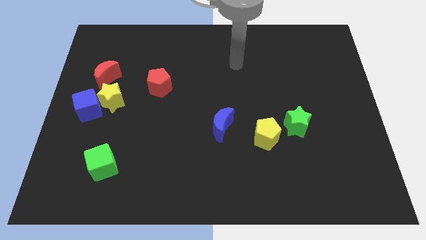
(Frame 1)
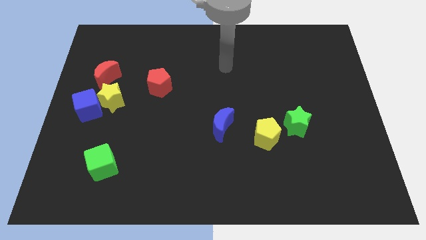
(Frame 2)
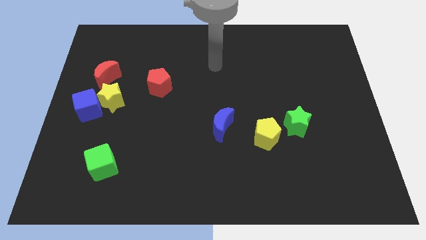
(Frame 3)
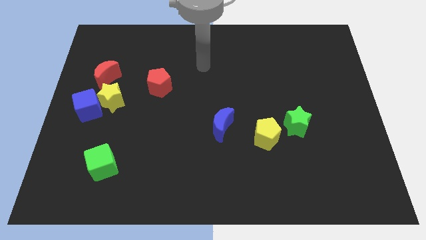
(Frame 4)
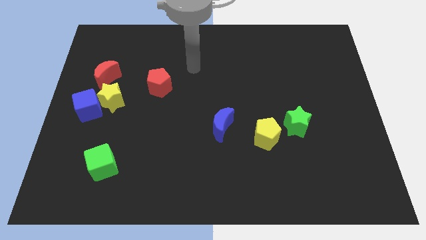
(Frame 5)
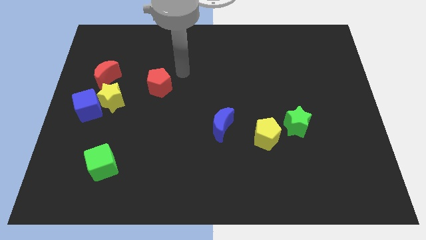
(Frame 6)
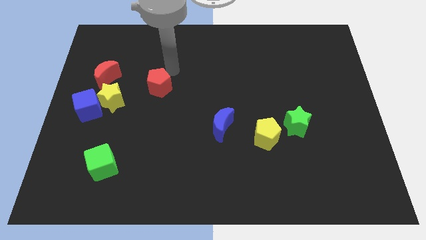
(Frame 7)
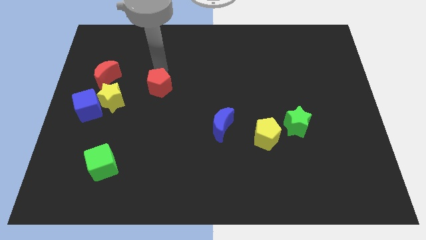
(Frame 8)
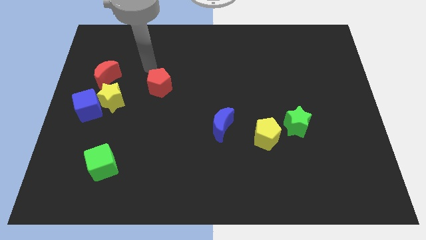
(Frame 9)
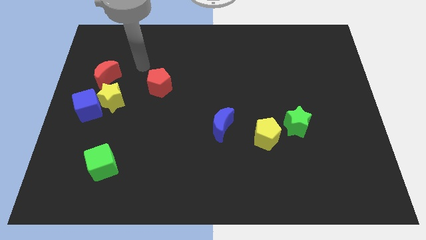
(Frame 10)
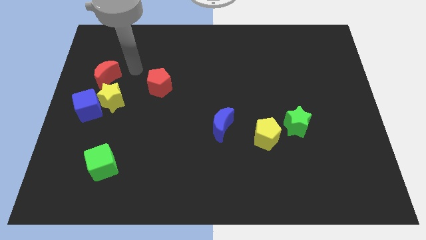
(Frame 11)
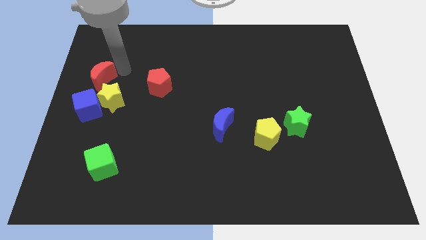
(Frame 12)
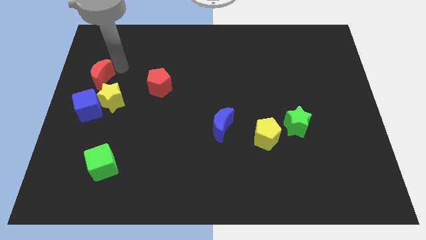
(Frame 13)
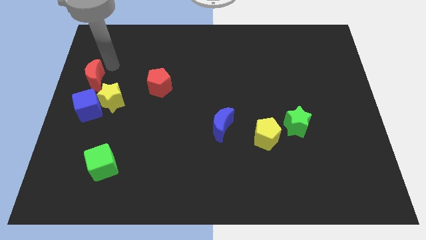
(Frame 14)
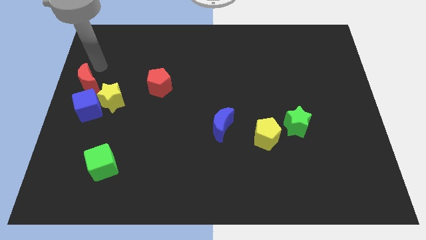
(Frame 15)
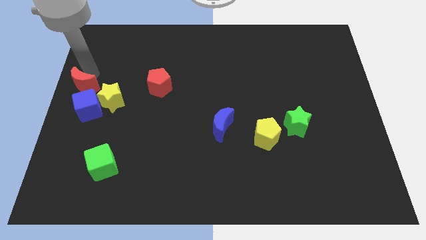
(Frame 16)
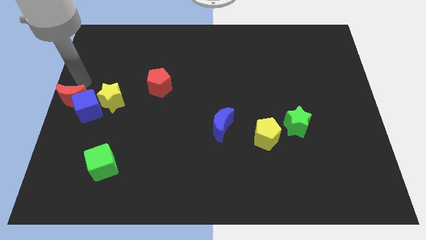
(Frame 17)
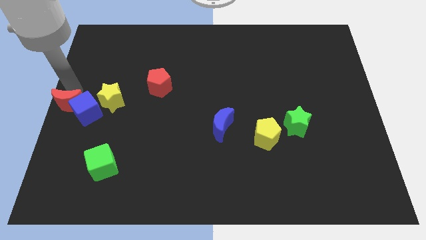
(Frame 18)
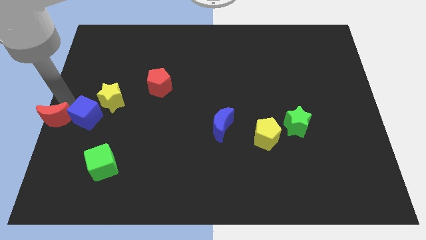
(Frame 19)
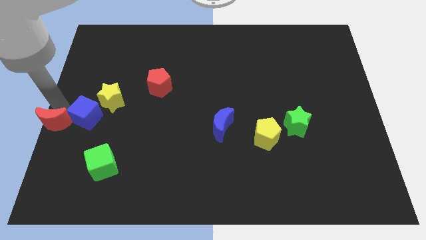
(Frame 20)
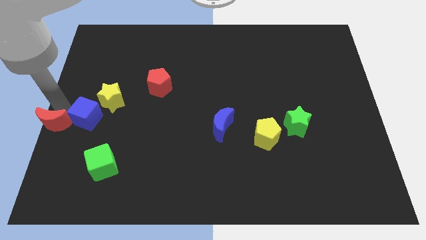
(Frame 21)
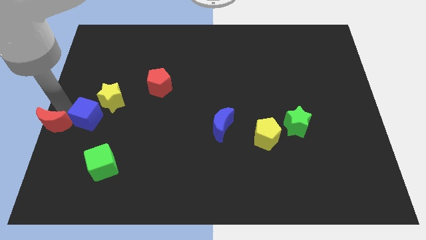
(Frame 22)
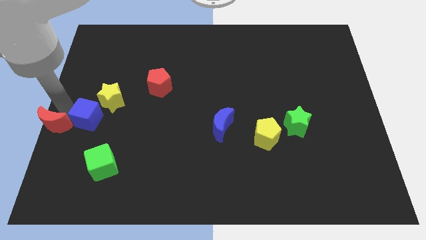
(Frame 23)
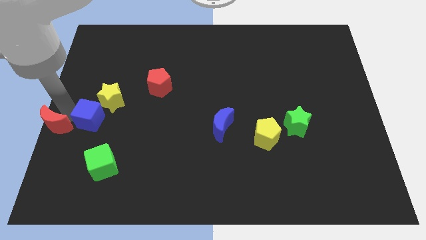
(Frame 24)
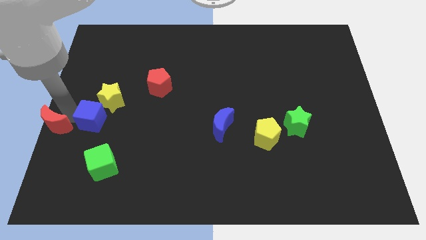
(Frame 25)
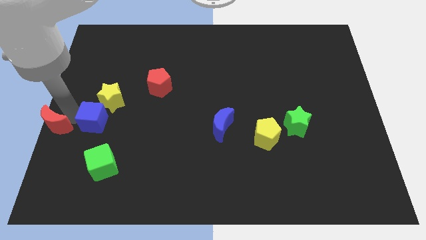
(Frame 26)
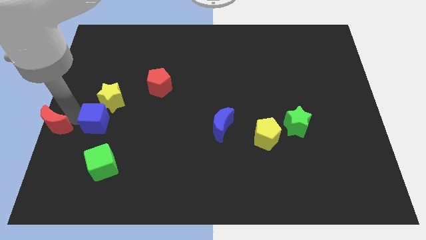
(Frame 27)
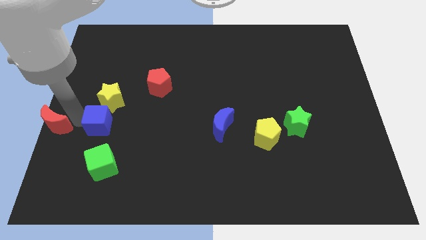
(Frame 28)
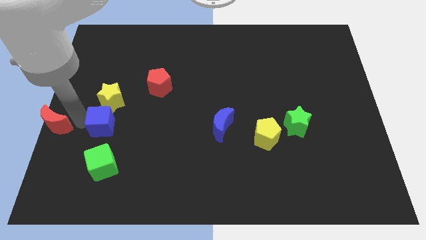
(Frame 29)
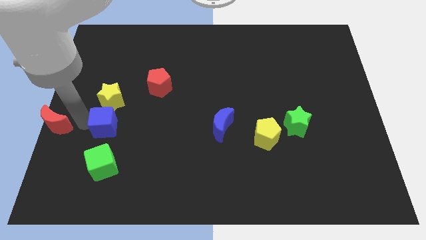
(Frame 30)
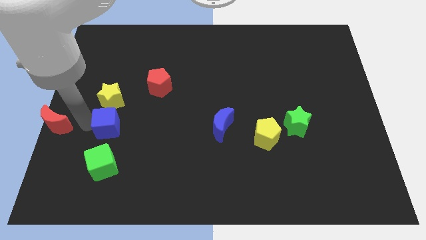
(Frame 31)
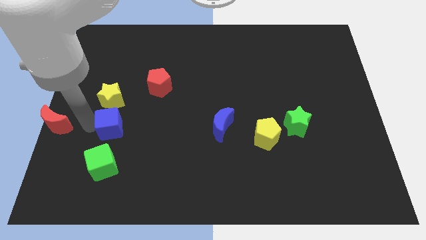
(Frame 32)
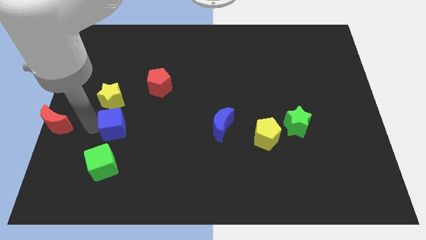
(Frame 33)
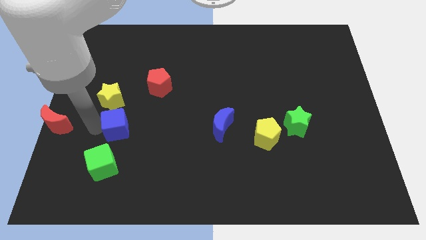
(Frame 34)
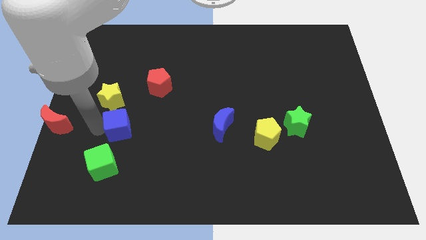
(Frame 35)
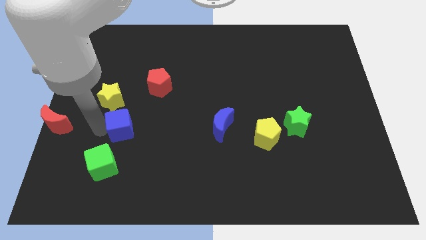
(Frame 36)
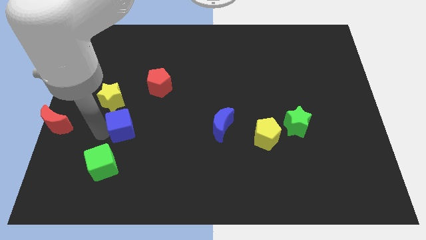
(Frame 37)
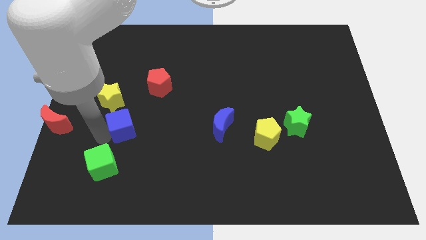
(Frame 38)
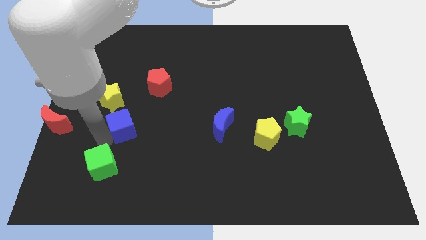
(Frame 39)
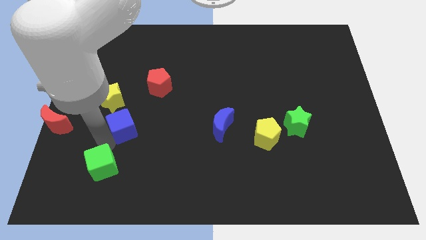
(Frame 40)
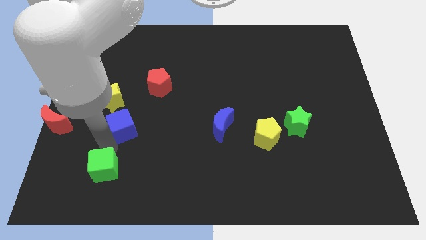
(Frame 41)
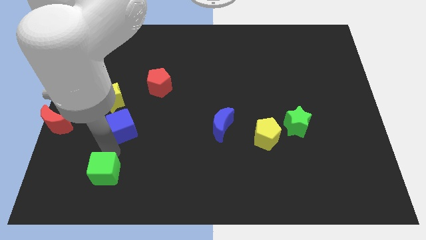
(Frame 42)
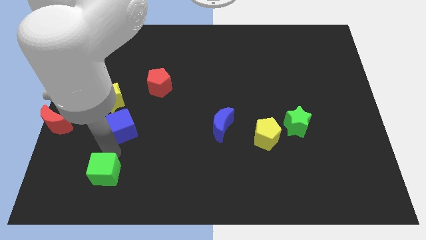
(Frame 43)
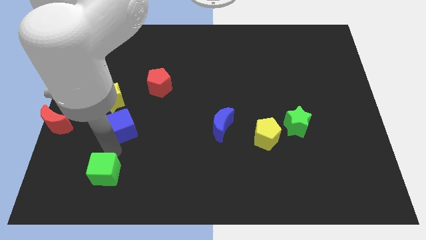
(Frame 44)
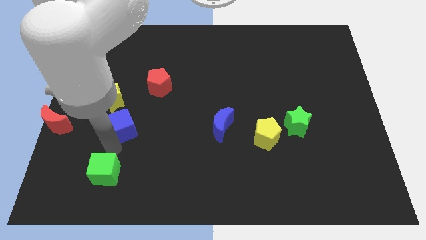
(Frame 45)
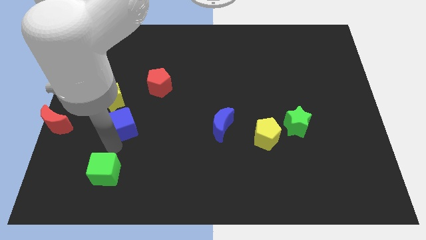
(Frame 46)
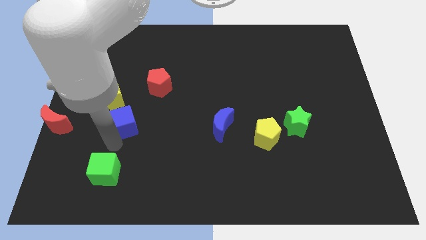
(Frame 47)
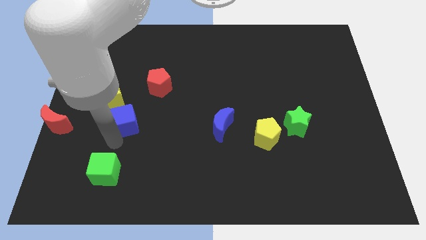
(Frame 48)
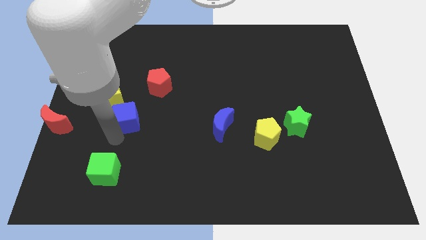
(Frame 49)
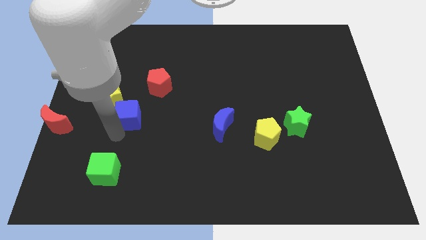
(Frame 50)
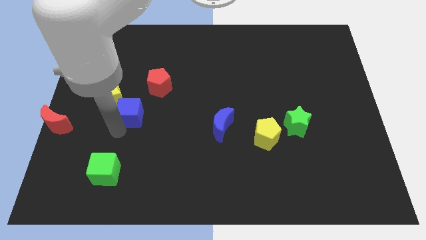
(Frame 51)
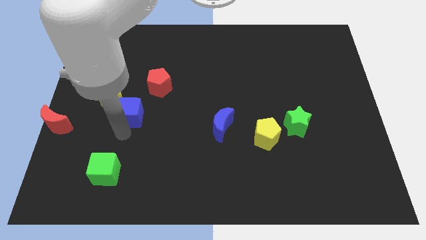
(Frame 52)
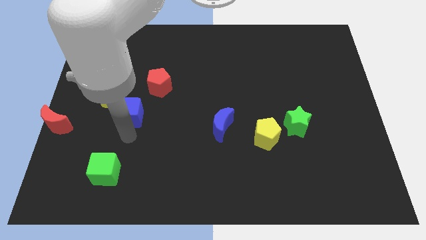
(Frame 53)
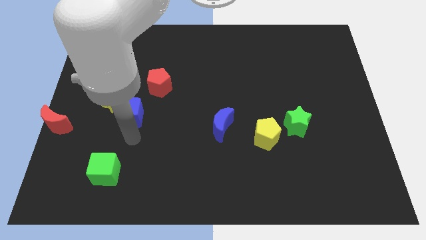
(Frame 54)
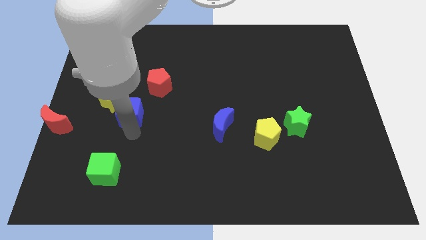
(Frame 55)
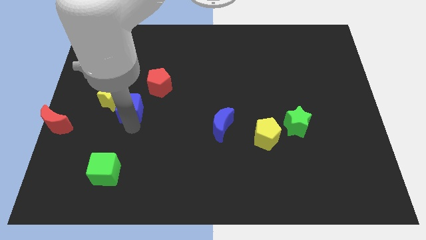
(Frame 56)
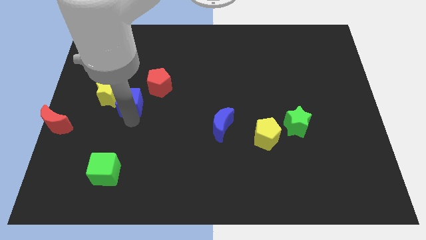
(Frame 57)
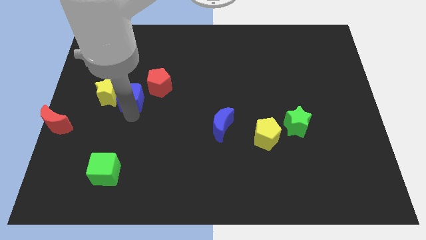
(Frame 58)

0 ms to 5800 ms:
slightly push the blue cube up and right

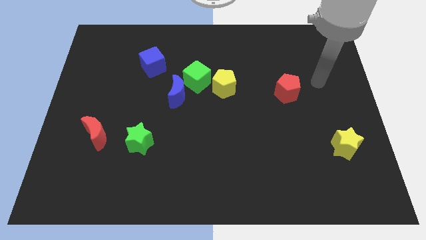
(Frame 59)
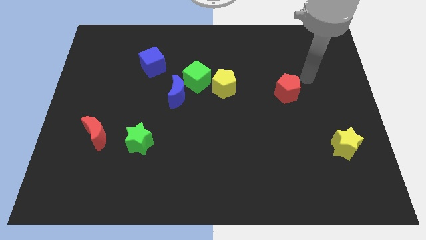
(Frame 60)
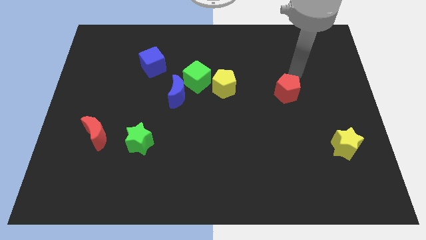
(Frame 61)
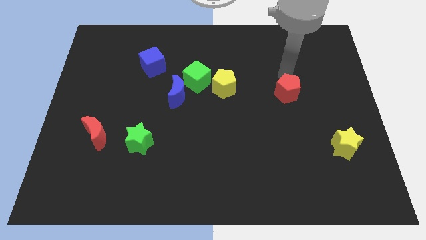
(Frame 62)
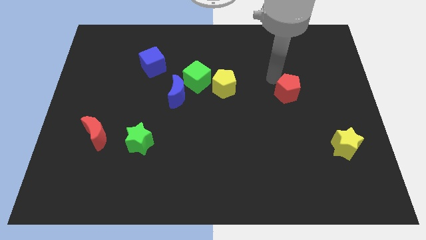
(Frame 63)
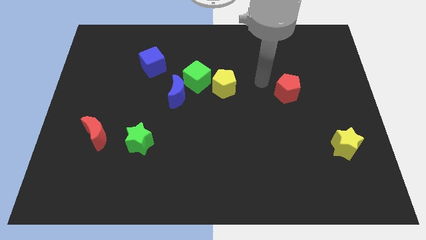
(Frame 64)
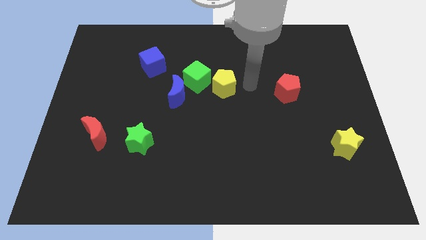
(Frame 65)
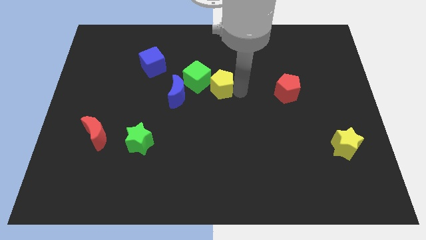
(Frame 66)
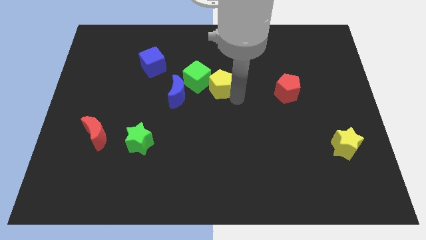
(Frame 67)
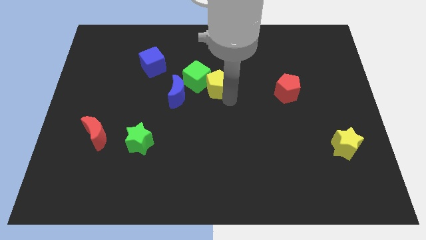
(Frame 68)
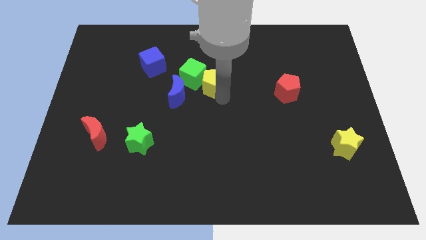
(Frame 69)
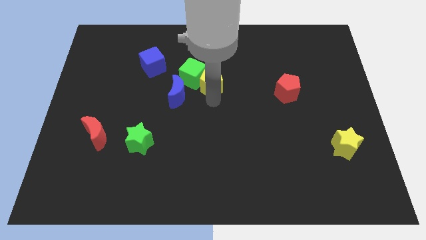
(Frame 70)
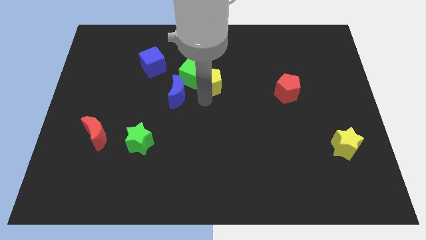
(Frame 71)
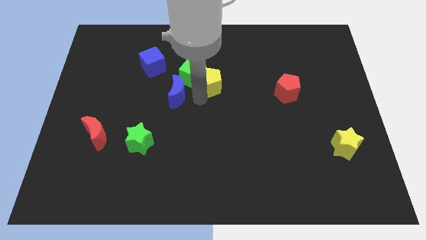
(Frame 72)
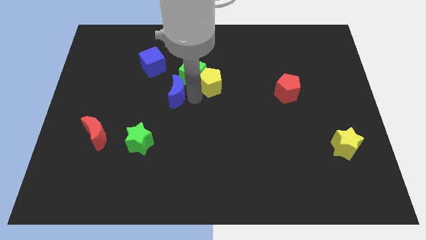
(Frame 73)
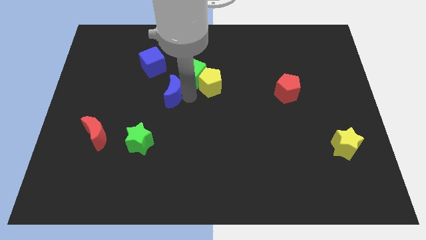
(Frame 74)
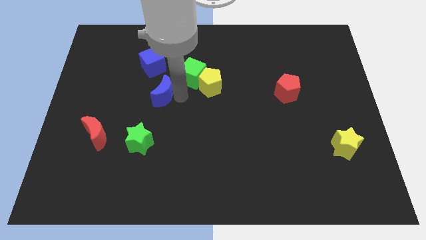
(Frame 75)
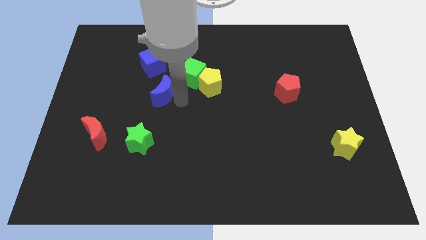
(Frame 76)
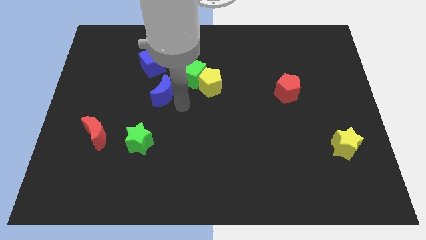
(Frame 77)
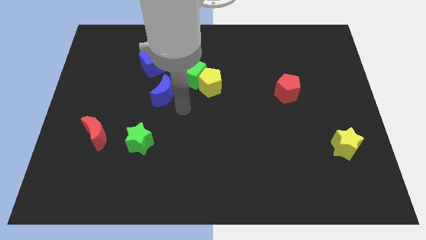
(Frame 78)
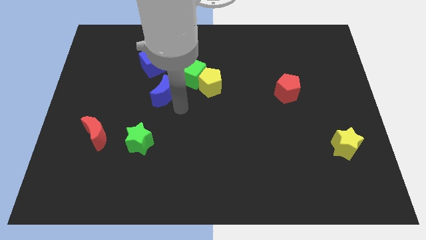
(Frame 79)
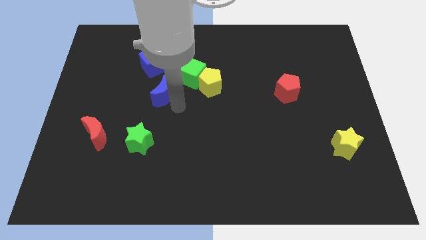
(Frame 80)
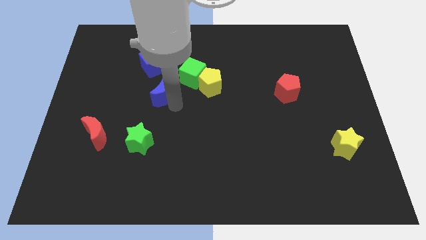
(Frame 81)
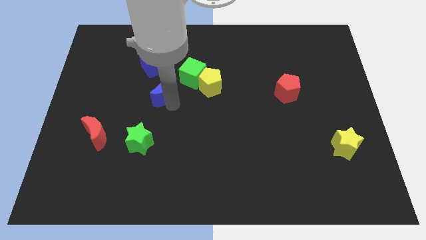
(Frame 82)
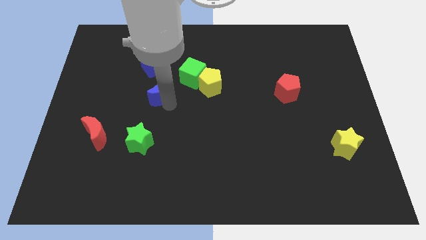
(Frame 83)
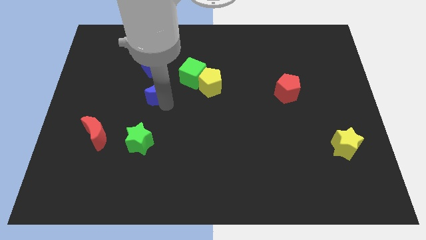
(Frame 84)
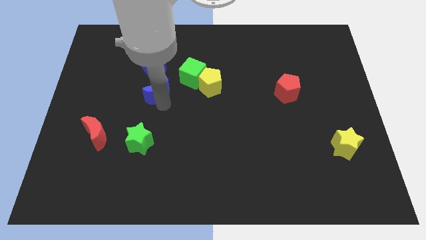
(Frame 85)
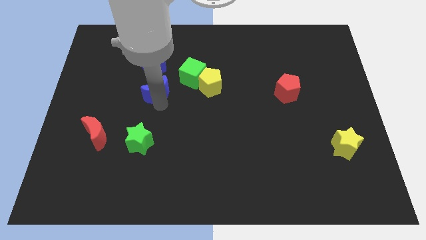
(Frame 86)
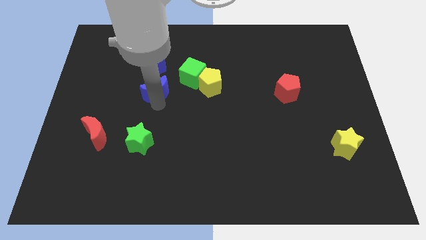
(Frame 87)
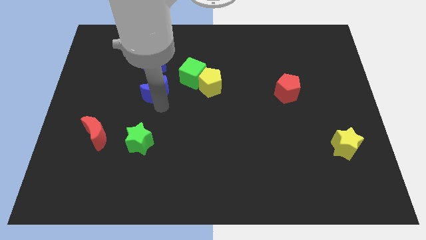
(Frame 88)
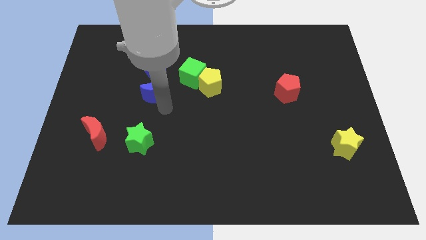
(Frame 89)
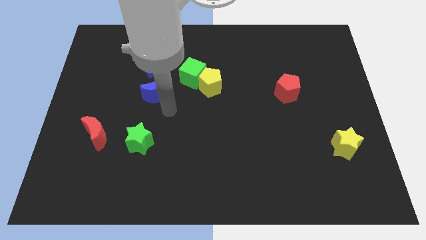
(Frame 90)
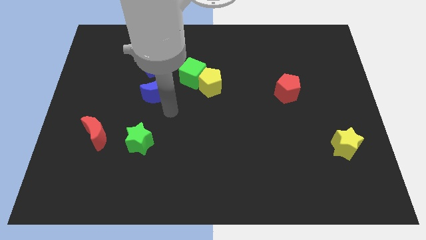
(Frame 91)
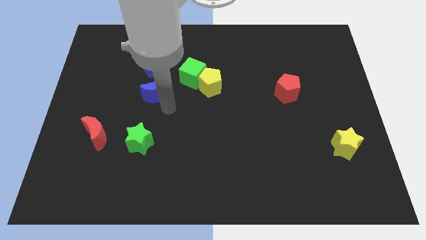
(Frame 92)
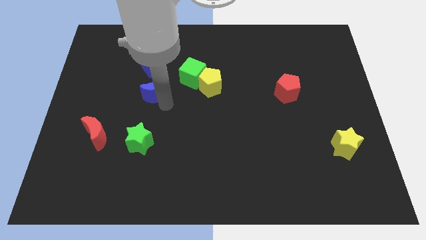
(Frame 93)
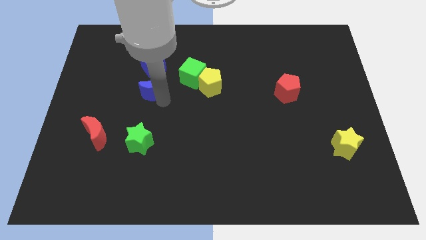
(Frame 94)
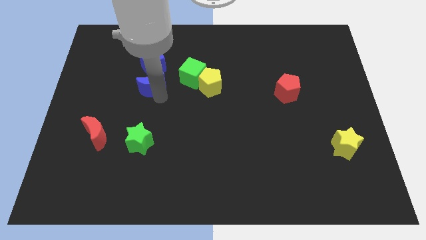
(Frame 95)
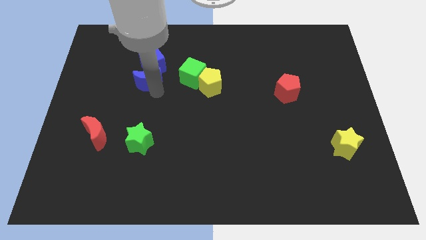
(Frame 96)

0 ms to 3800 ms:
slightly push the blue moon up and left diagonally
